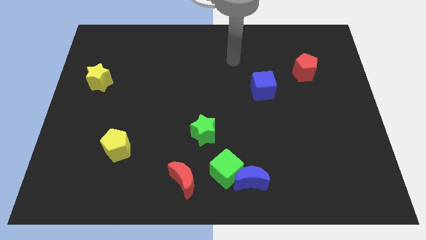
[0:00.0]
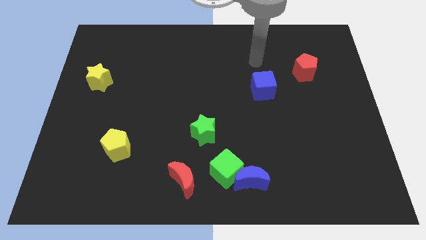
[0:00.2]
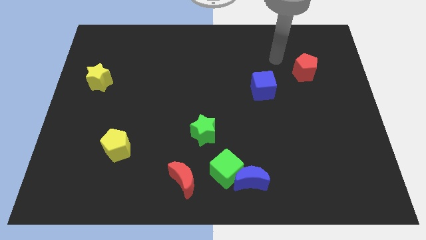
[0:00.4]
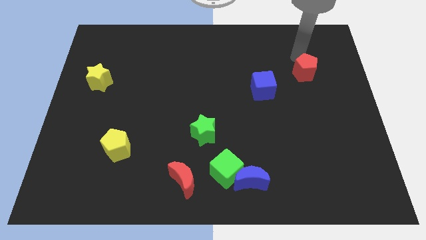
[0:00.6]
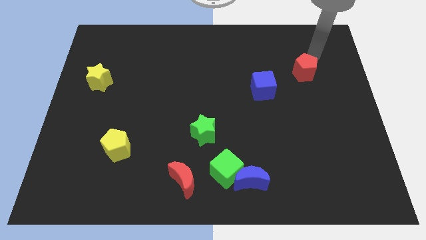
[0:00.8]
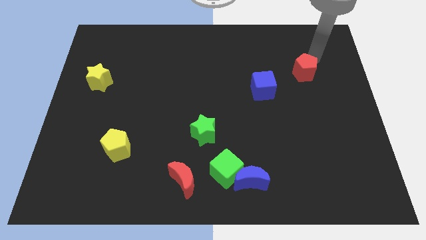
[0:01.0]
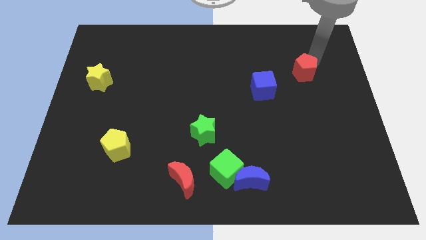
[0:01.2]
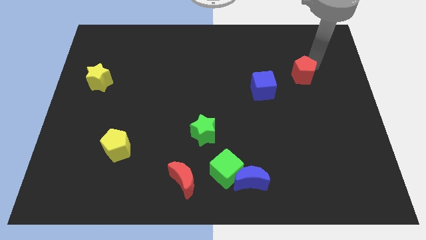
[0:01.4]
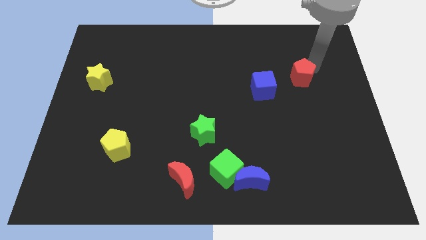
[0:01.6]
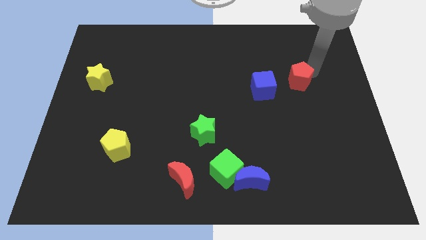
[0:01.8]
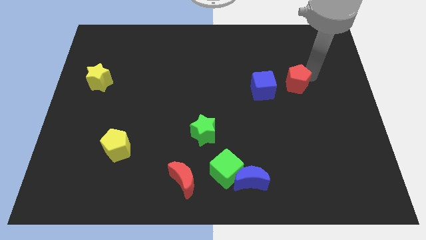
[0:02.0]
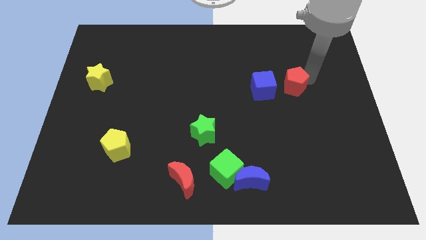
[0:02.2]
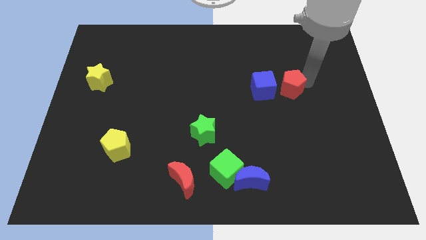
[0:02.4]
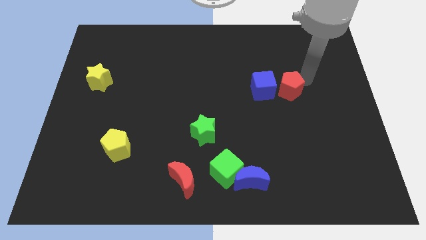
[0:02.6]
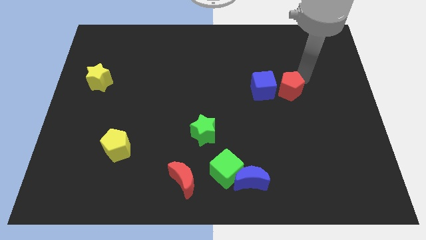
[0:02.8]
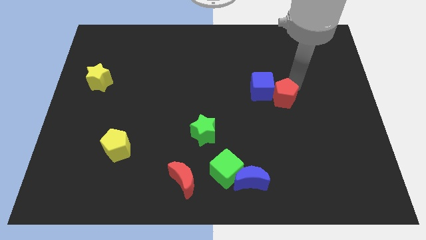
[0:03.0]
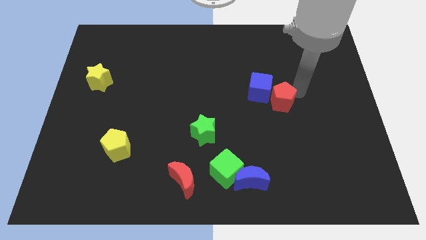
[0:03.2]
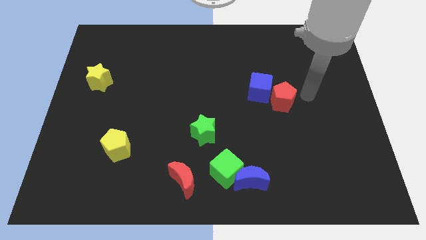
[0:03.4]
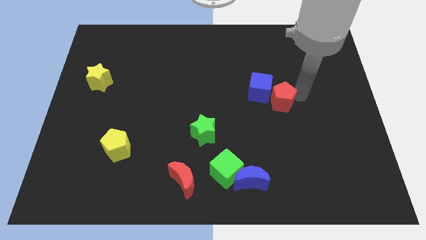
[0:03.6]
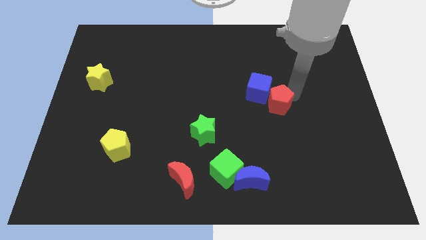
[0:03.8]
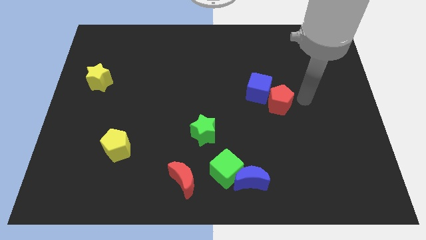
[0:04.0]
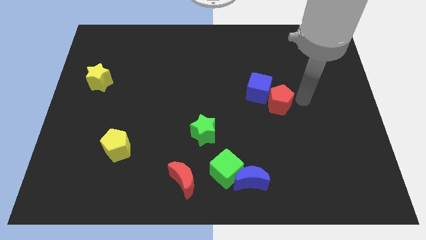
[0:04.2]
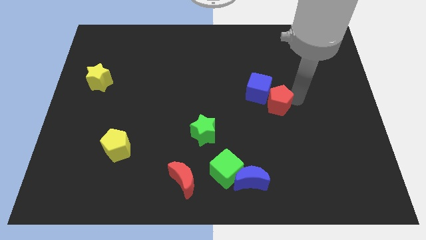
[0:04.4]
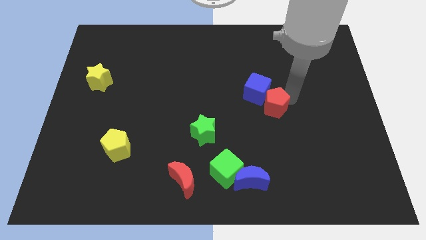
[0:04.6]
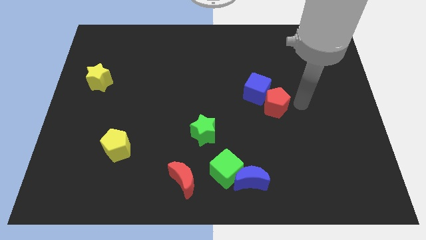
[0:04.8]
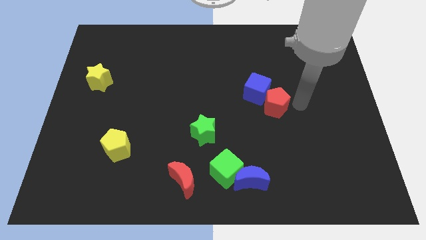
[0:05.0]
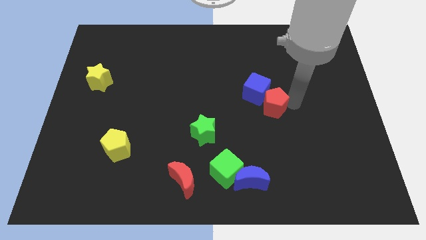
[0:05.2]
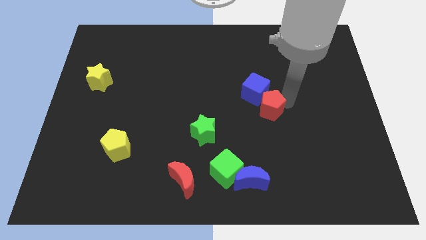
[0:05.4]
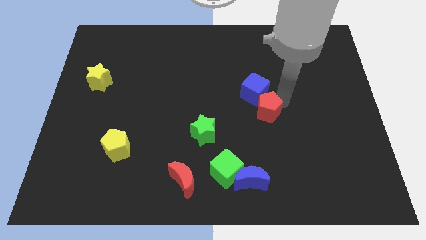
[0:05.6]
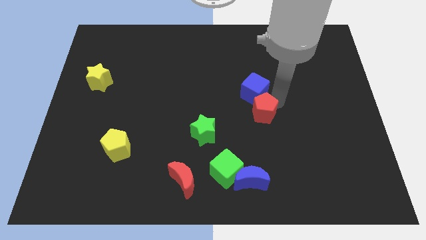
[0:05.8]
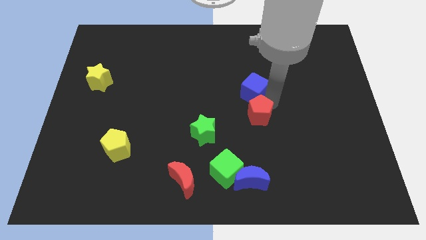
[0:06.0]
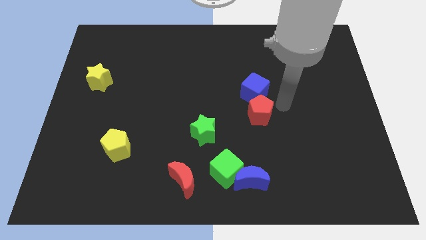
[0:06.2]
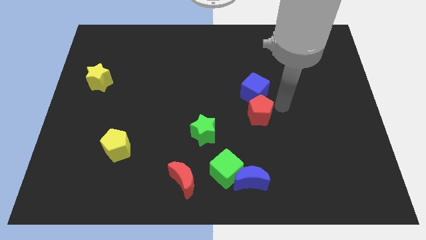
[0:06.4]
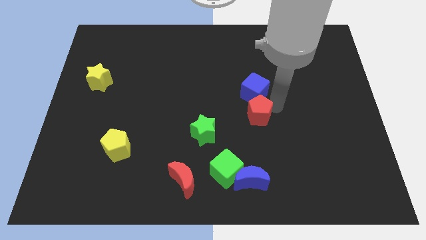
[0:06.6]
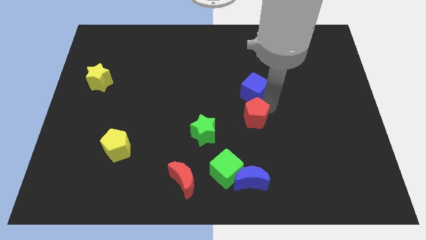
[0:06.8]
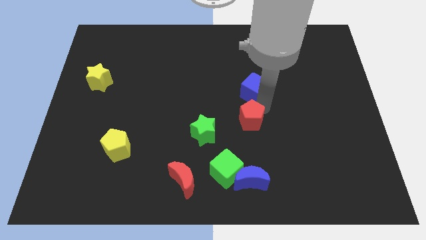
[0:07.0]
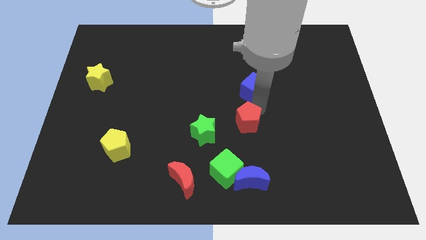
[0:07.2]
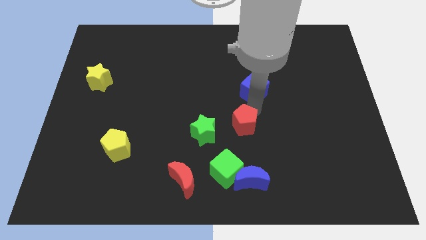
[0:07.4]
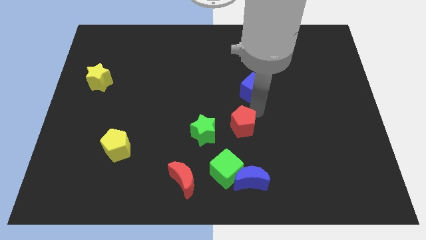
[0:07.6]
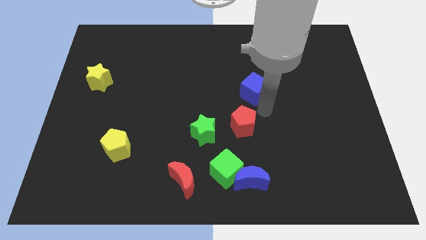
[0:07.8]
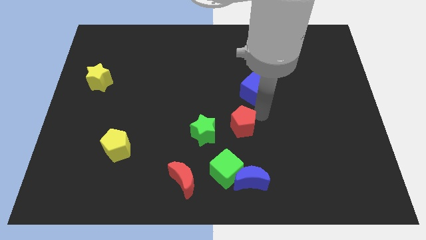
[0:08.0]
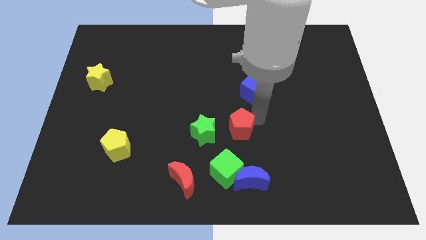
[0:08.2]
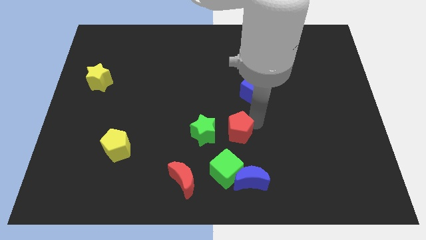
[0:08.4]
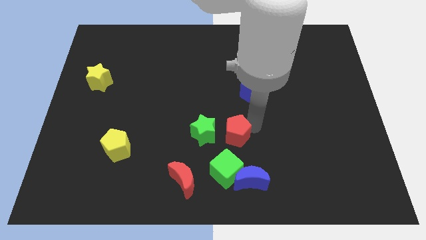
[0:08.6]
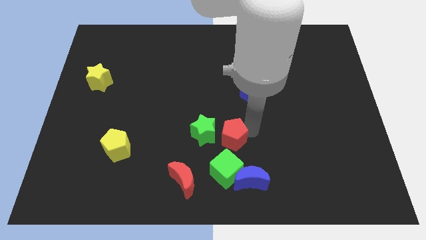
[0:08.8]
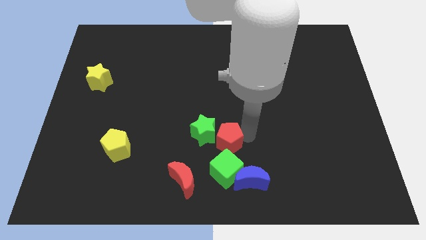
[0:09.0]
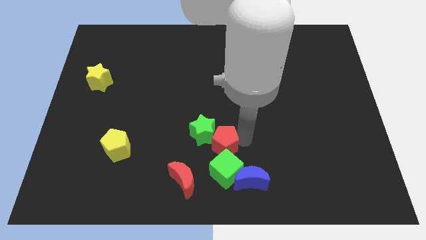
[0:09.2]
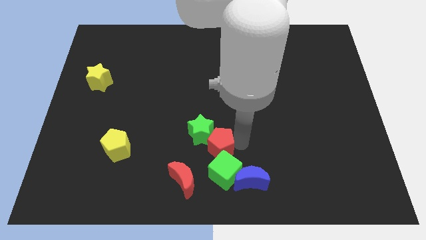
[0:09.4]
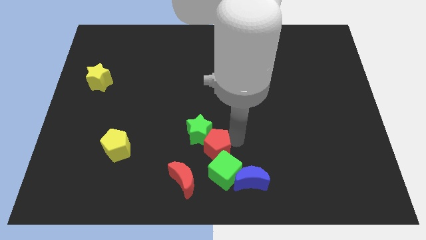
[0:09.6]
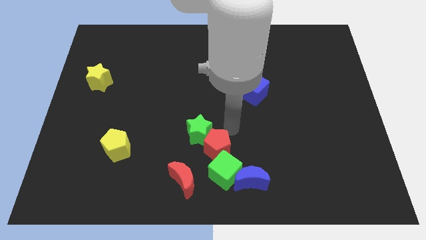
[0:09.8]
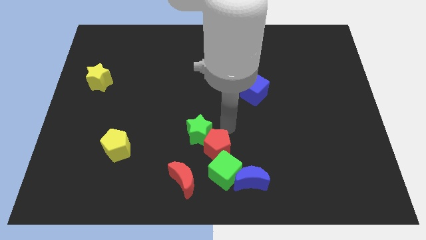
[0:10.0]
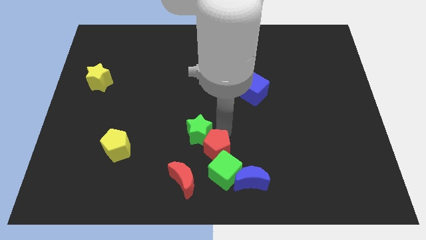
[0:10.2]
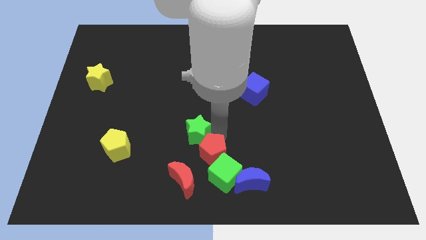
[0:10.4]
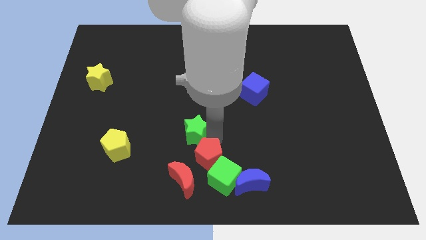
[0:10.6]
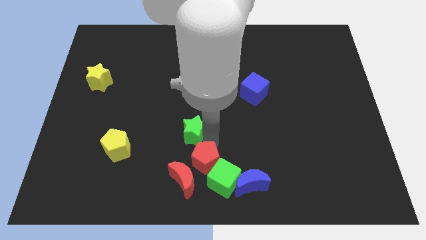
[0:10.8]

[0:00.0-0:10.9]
push the red pentagon next to the red moon

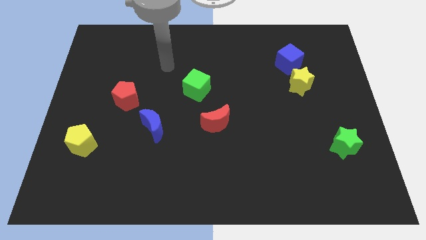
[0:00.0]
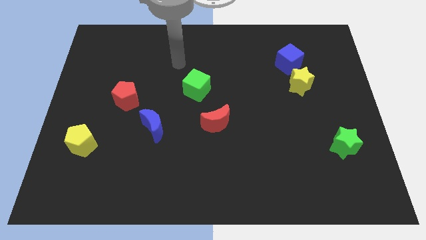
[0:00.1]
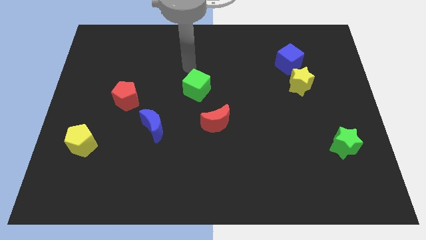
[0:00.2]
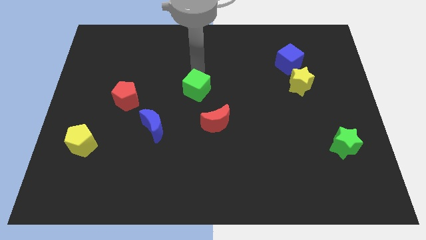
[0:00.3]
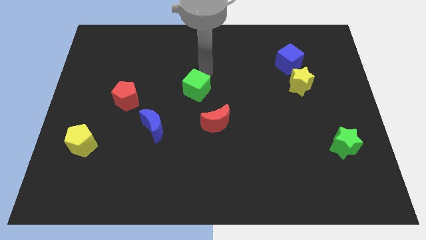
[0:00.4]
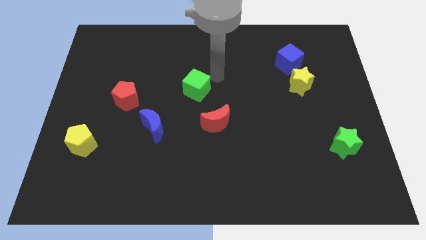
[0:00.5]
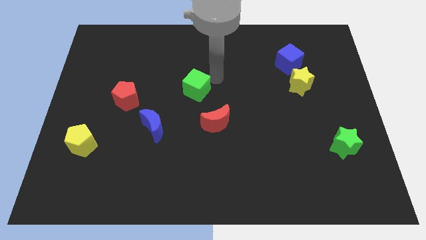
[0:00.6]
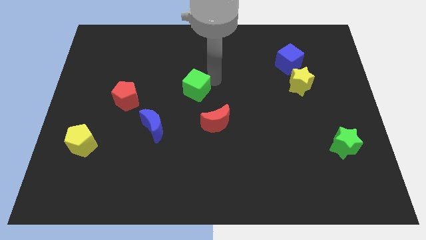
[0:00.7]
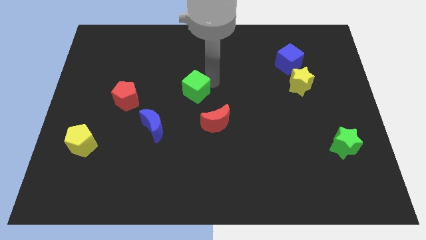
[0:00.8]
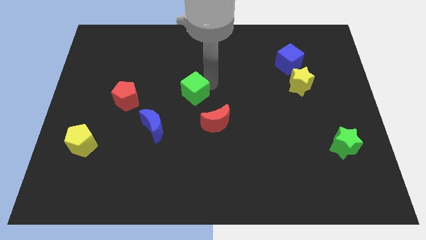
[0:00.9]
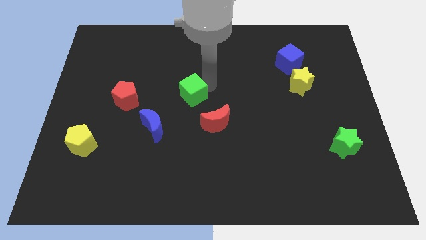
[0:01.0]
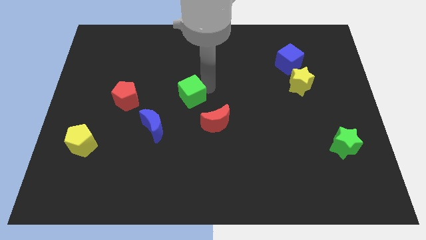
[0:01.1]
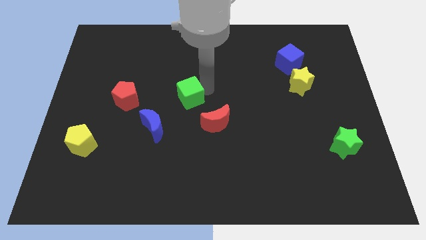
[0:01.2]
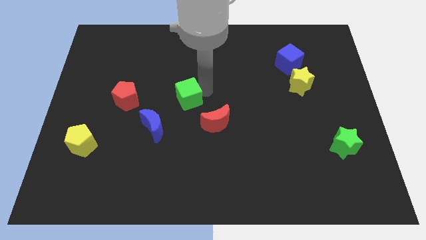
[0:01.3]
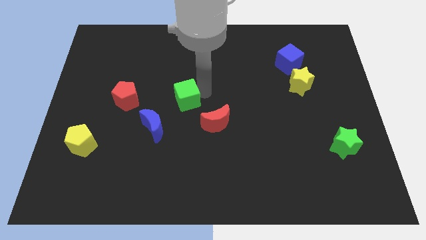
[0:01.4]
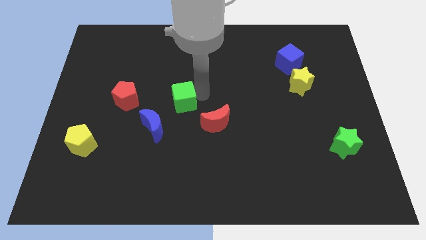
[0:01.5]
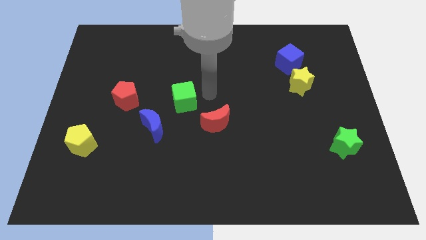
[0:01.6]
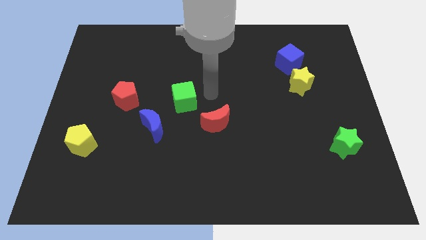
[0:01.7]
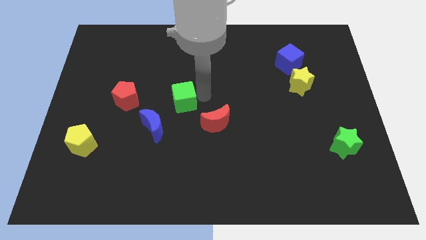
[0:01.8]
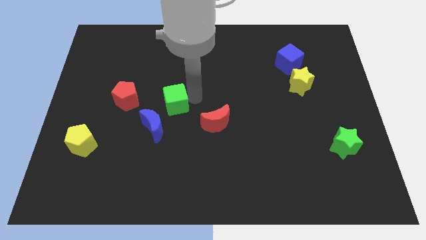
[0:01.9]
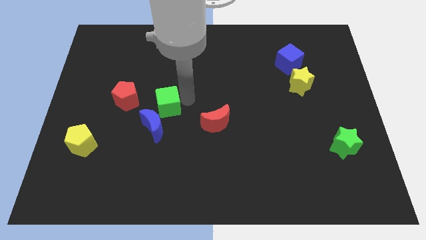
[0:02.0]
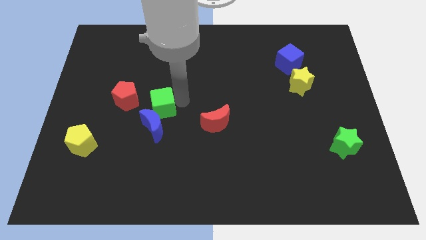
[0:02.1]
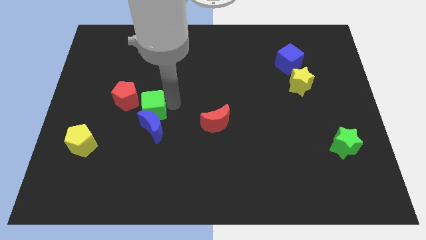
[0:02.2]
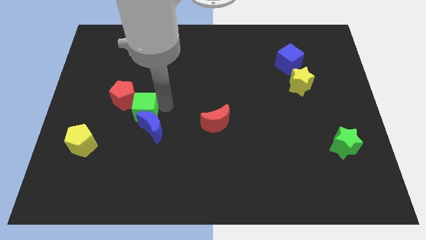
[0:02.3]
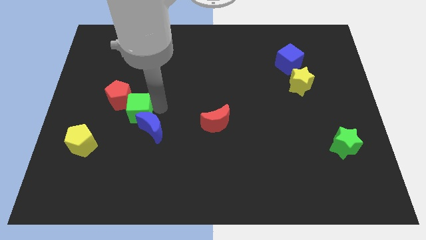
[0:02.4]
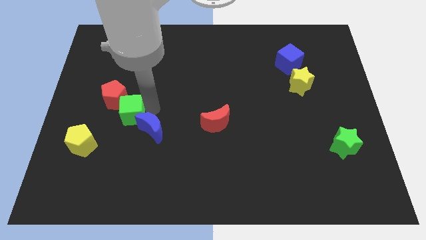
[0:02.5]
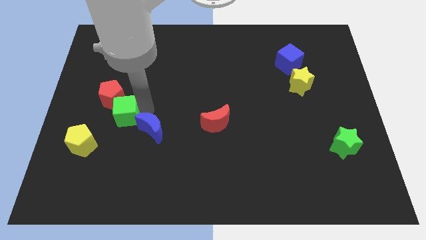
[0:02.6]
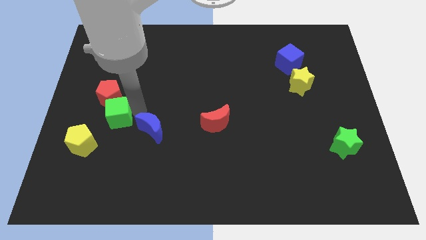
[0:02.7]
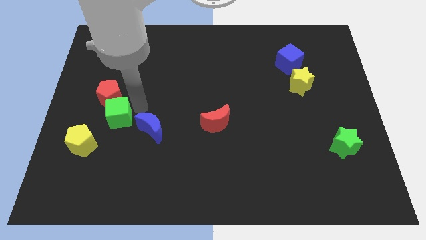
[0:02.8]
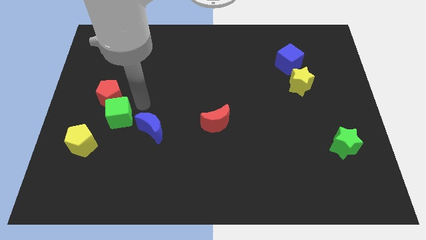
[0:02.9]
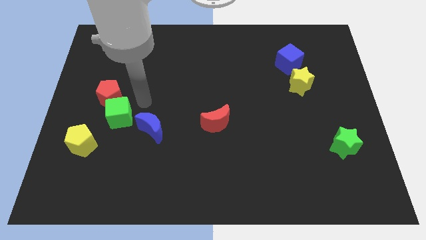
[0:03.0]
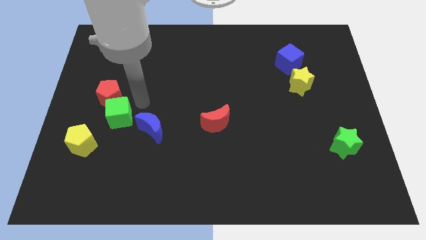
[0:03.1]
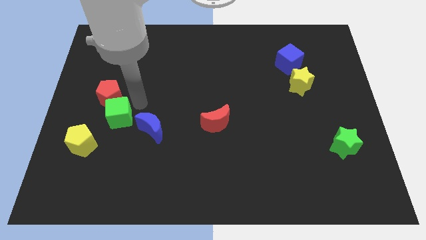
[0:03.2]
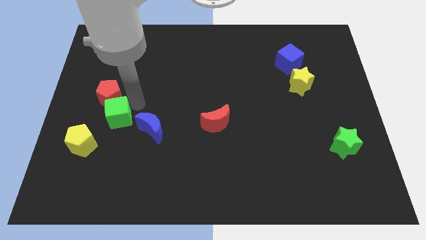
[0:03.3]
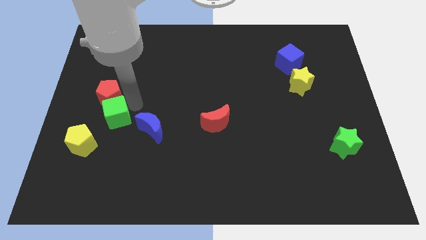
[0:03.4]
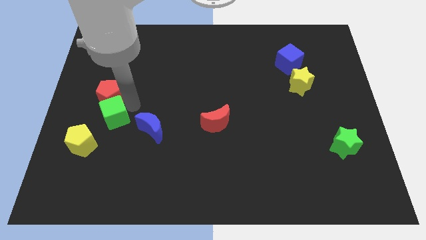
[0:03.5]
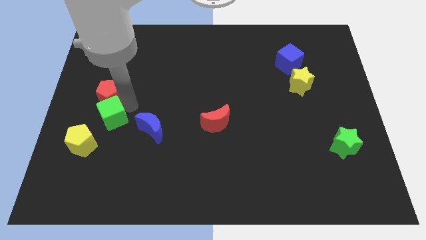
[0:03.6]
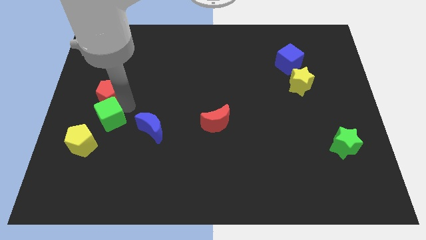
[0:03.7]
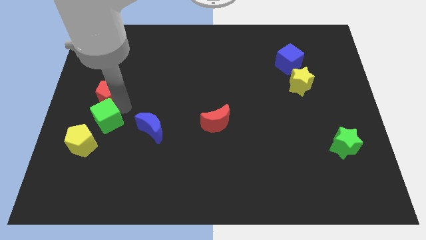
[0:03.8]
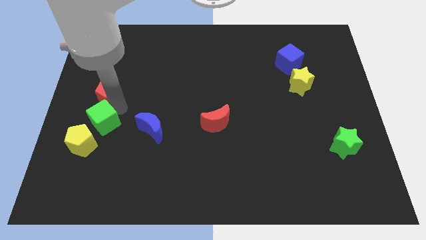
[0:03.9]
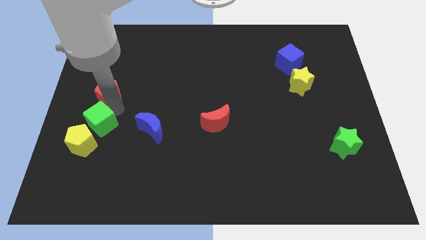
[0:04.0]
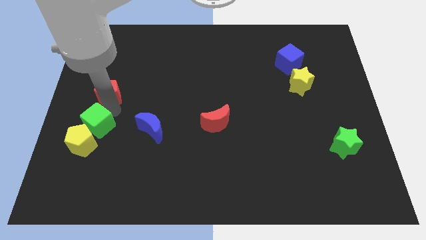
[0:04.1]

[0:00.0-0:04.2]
slide the green cube next to the yellow pentagon
